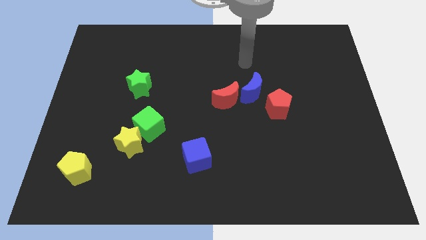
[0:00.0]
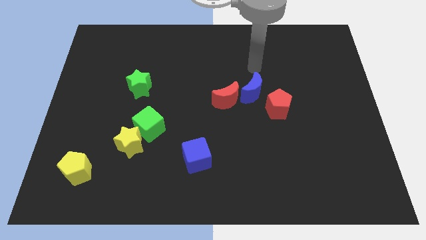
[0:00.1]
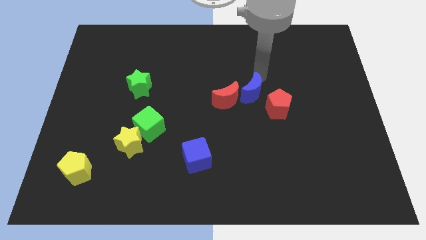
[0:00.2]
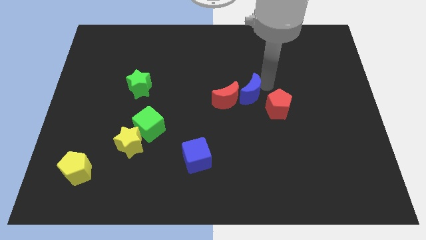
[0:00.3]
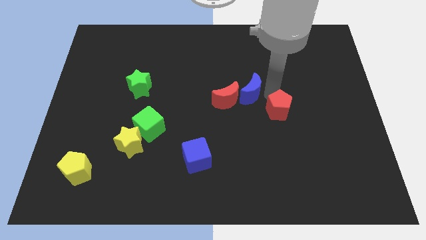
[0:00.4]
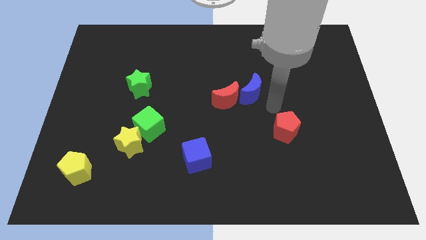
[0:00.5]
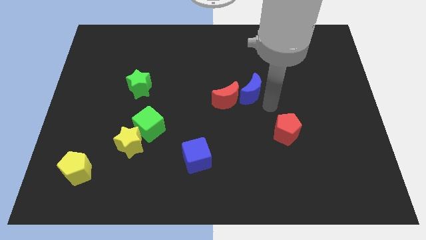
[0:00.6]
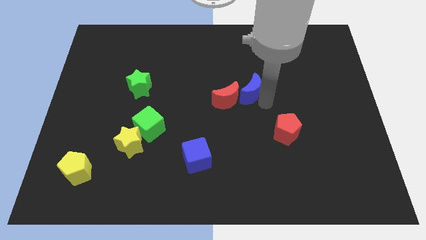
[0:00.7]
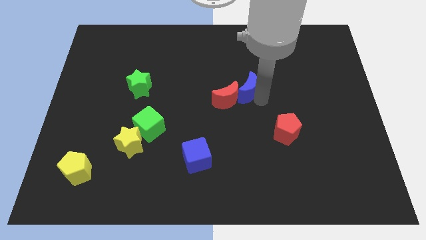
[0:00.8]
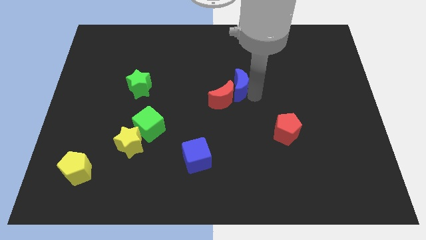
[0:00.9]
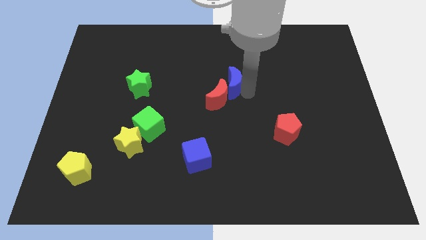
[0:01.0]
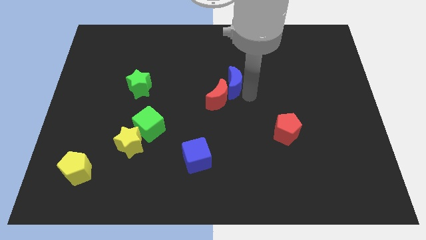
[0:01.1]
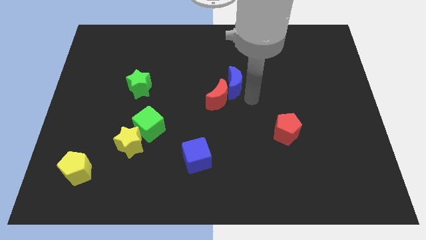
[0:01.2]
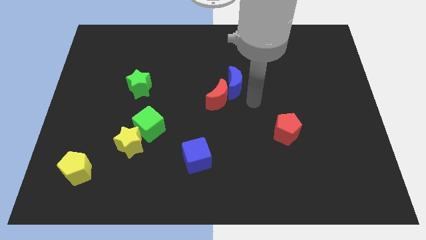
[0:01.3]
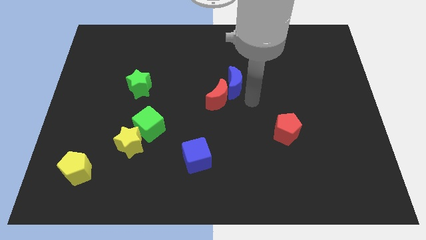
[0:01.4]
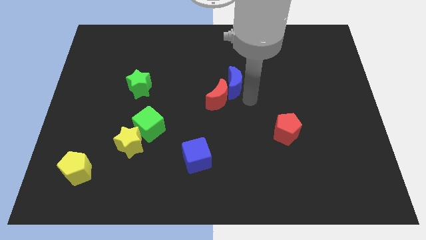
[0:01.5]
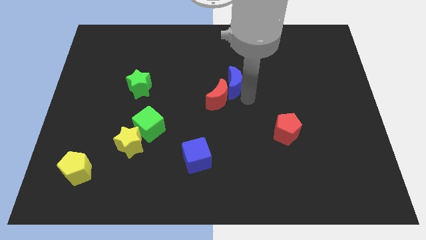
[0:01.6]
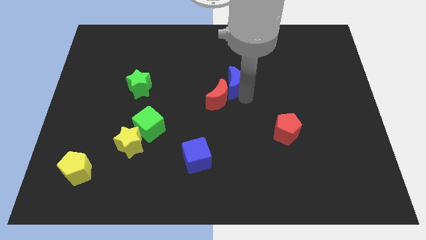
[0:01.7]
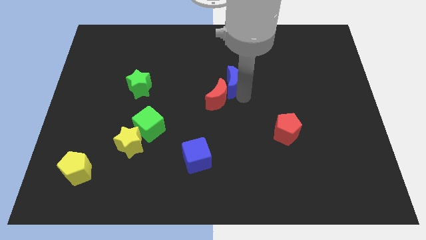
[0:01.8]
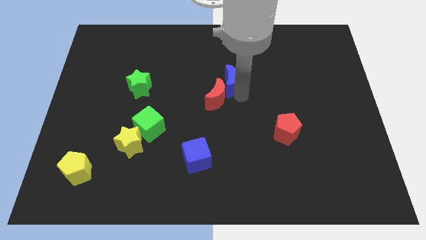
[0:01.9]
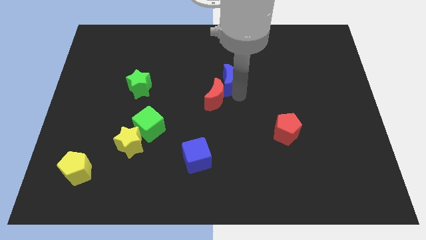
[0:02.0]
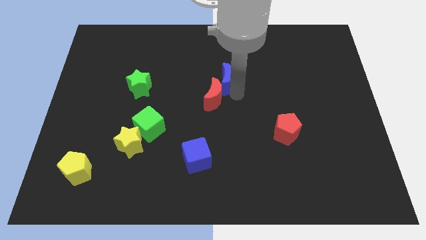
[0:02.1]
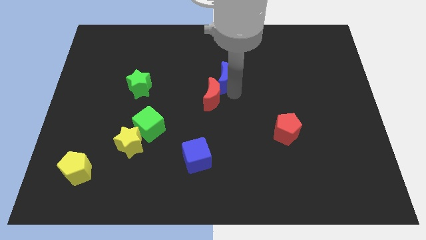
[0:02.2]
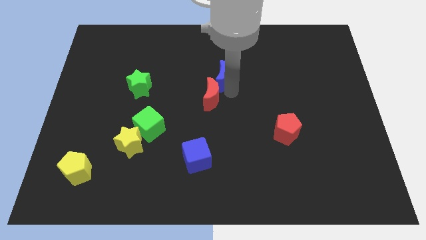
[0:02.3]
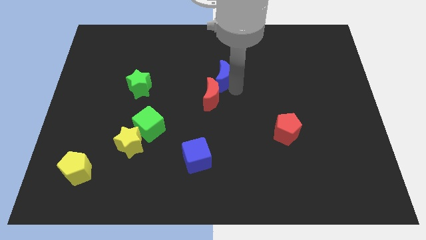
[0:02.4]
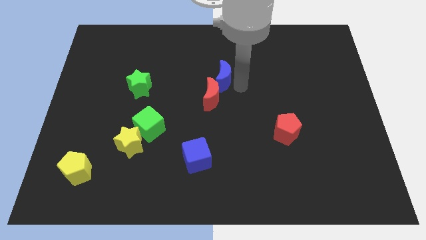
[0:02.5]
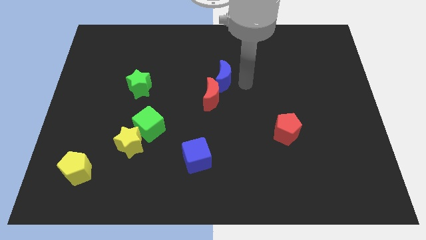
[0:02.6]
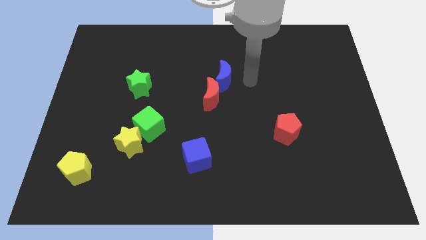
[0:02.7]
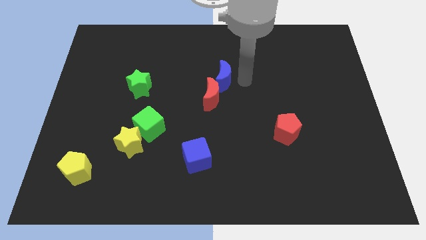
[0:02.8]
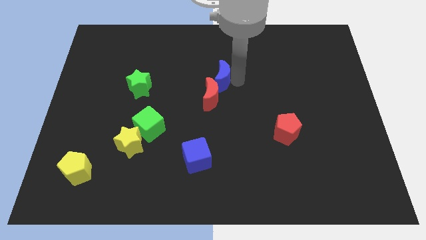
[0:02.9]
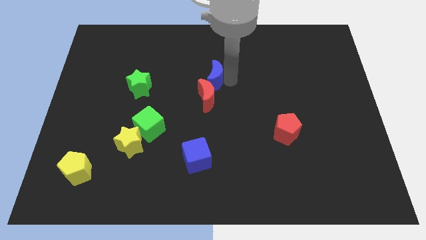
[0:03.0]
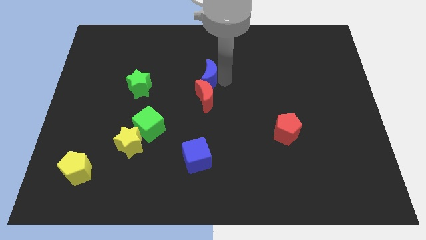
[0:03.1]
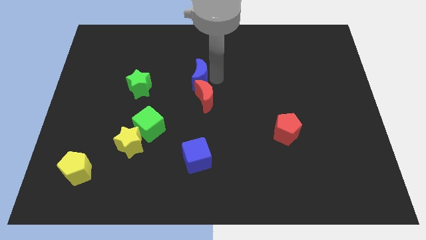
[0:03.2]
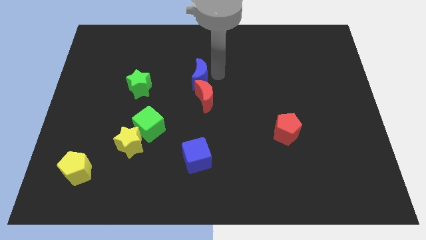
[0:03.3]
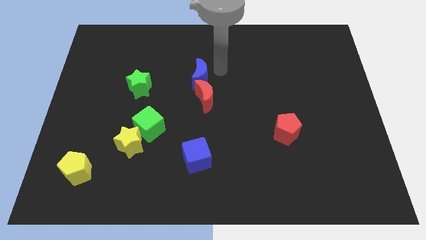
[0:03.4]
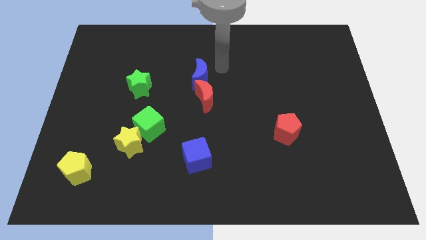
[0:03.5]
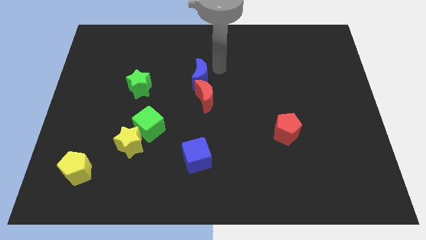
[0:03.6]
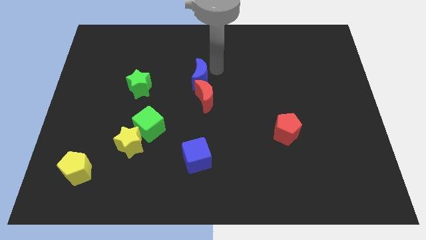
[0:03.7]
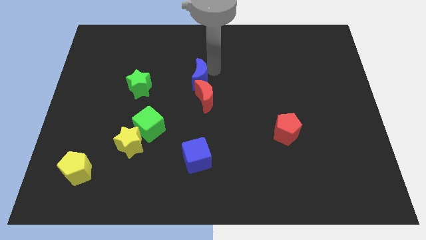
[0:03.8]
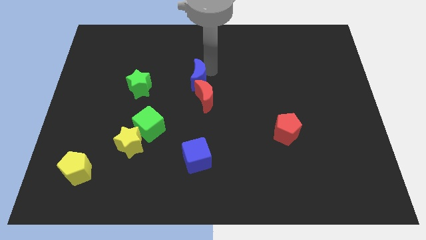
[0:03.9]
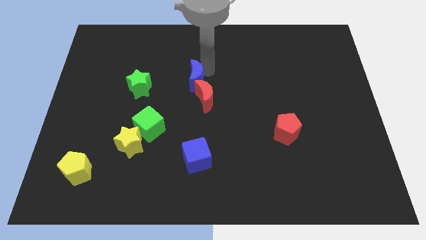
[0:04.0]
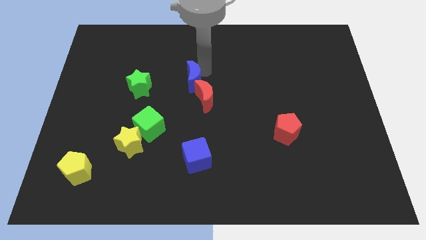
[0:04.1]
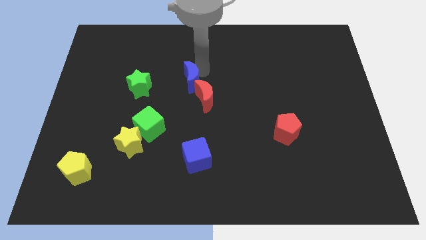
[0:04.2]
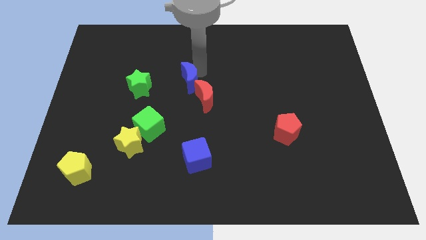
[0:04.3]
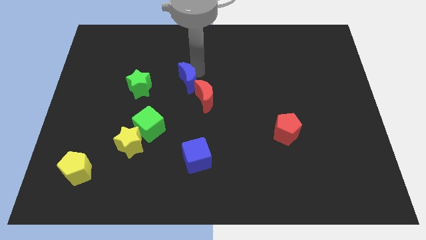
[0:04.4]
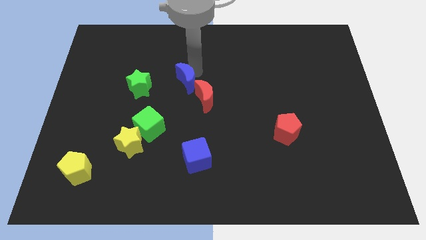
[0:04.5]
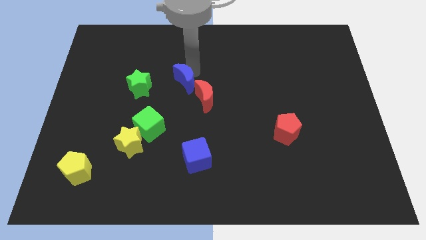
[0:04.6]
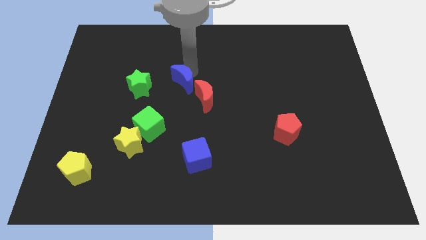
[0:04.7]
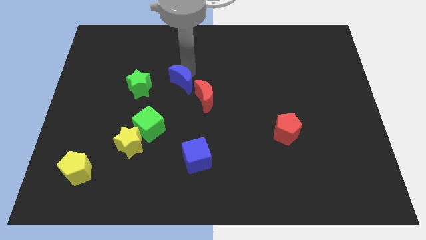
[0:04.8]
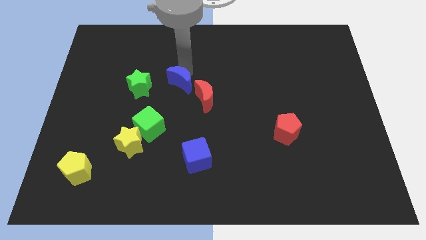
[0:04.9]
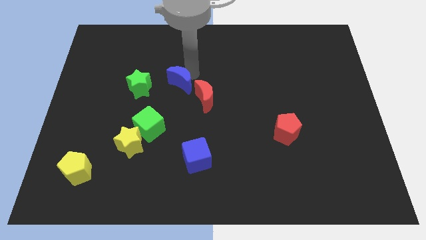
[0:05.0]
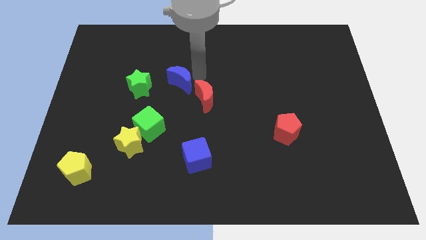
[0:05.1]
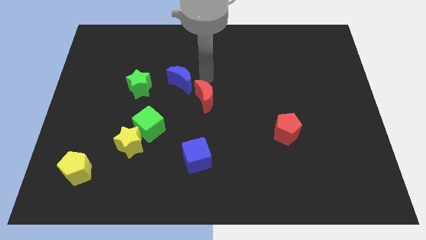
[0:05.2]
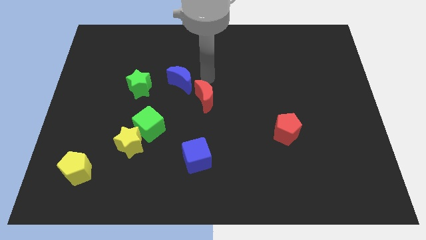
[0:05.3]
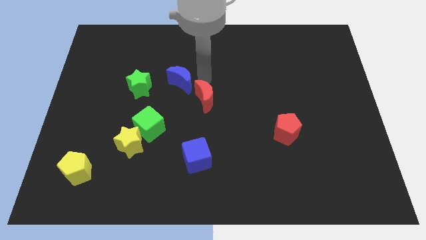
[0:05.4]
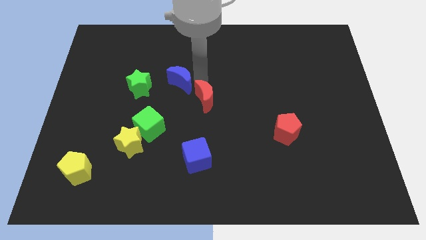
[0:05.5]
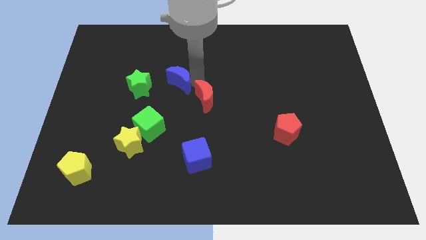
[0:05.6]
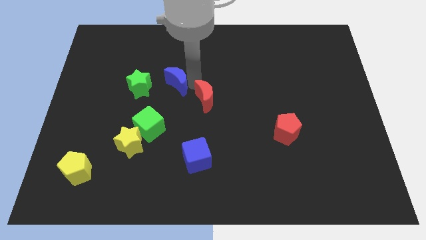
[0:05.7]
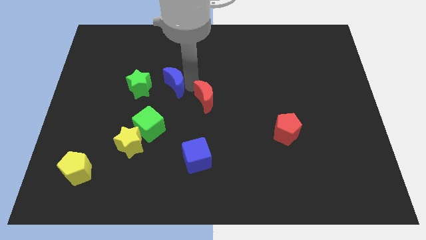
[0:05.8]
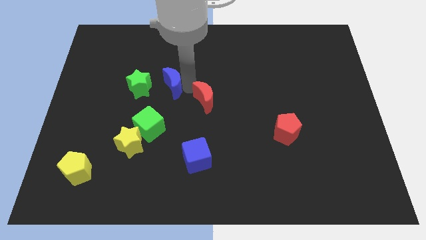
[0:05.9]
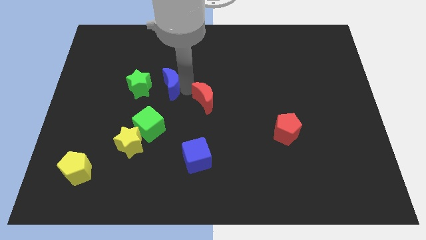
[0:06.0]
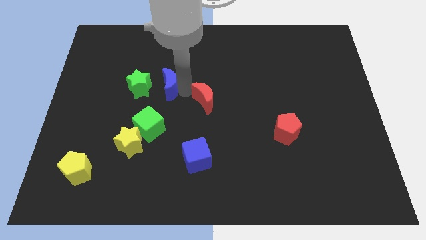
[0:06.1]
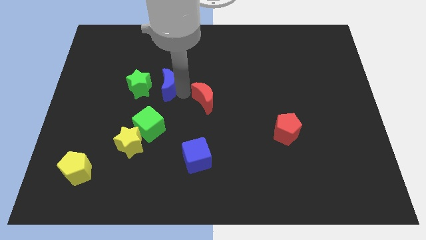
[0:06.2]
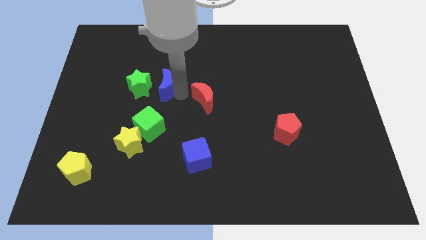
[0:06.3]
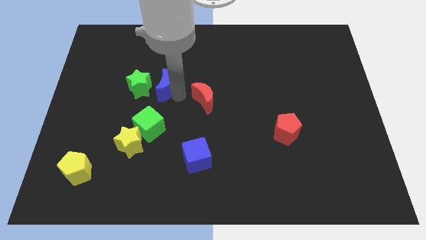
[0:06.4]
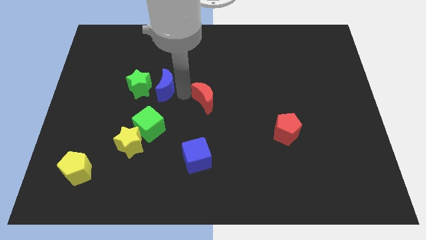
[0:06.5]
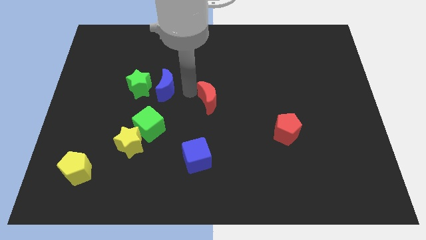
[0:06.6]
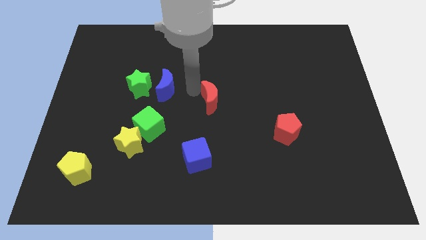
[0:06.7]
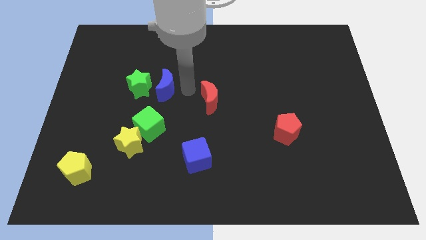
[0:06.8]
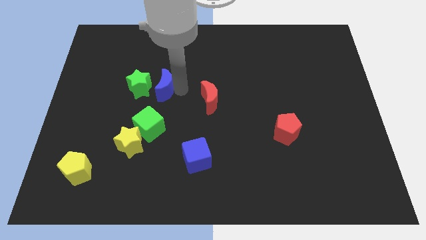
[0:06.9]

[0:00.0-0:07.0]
push the blue moon towards the green star
